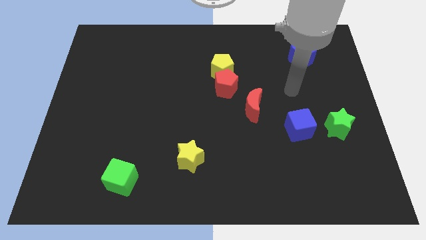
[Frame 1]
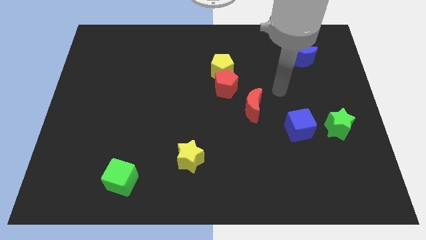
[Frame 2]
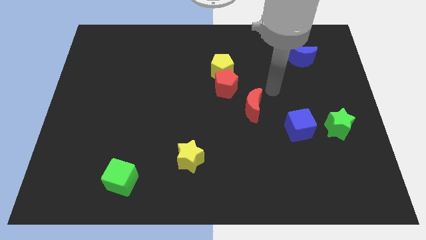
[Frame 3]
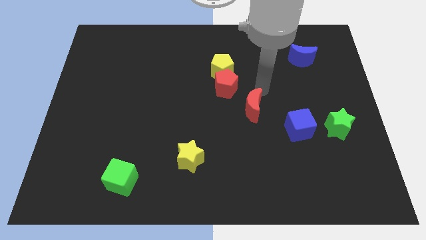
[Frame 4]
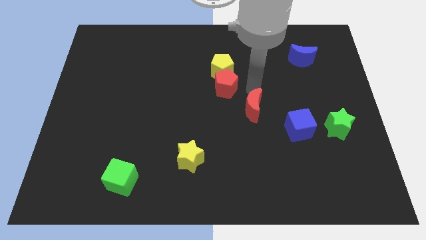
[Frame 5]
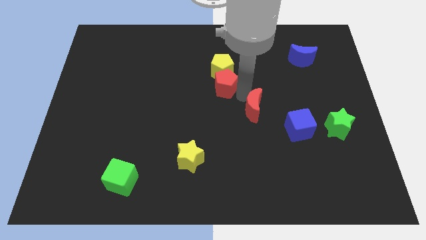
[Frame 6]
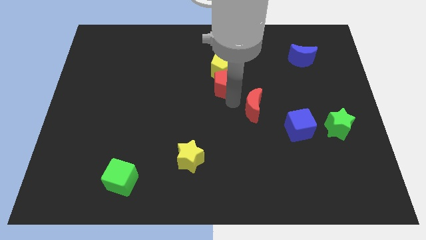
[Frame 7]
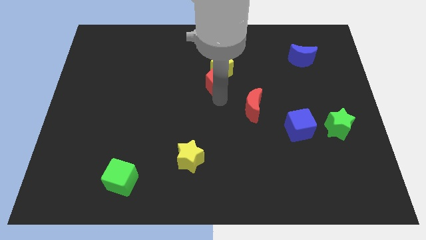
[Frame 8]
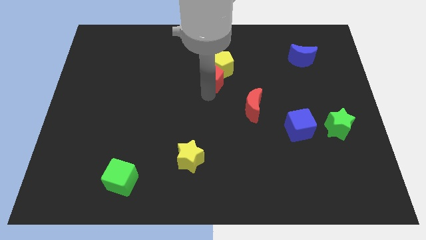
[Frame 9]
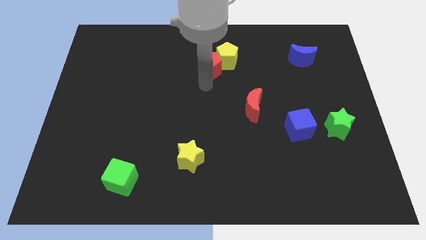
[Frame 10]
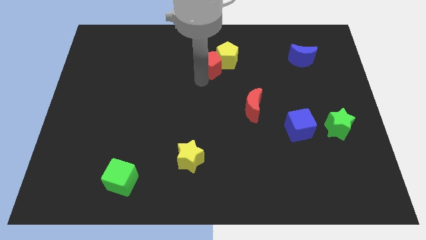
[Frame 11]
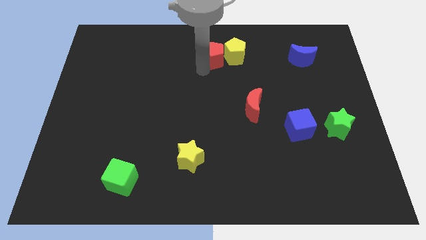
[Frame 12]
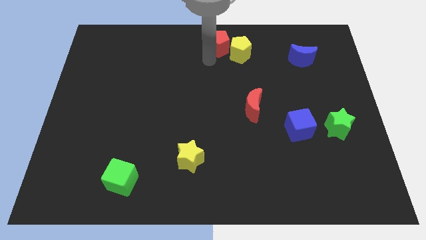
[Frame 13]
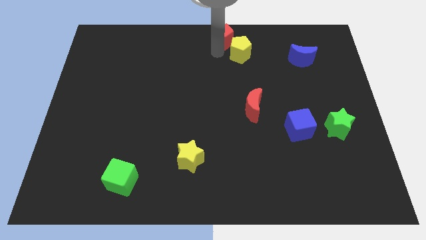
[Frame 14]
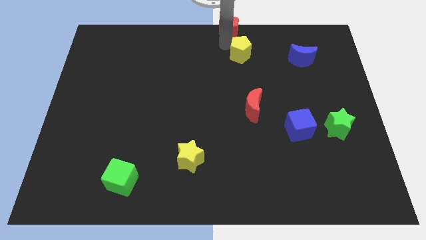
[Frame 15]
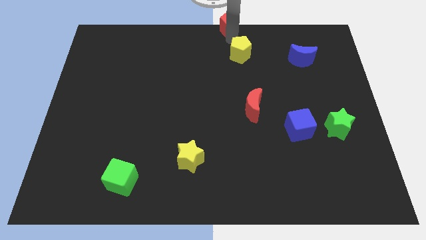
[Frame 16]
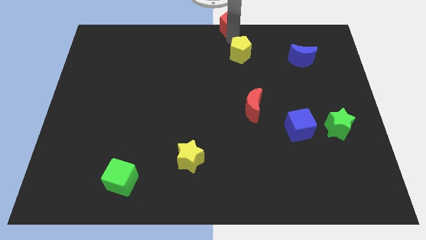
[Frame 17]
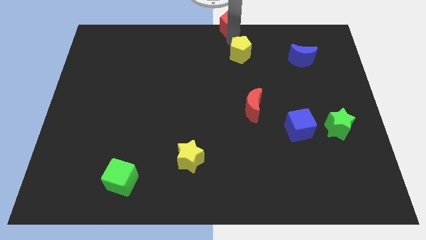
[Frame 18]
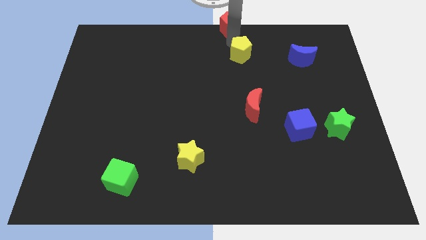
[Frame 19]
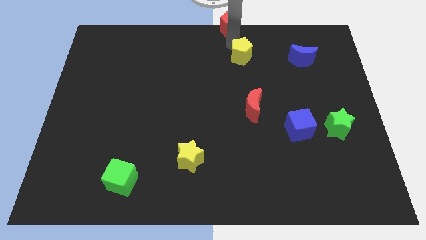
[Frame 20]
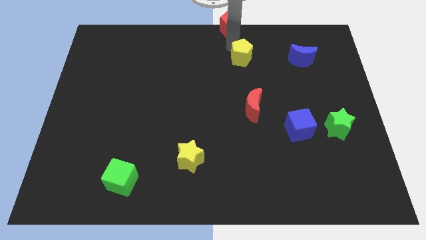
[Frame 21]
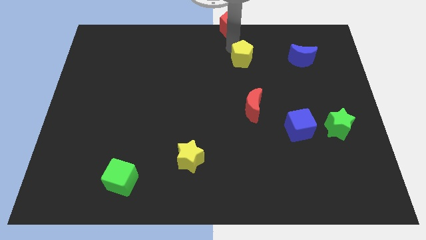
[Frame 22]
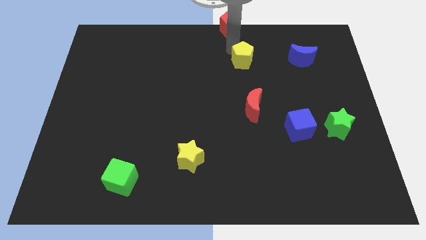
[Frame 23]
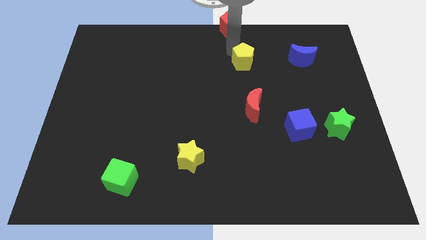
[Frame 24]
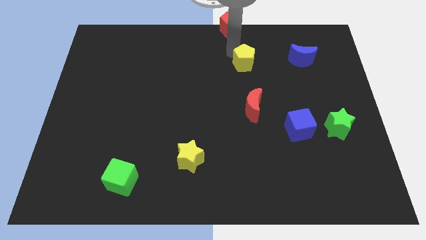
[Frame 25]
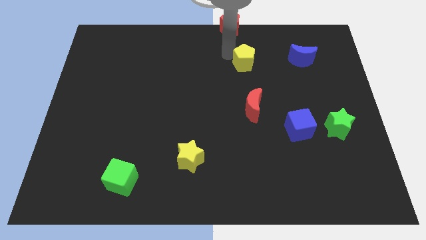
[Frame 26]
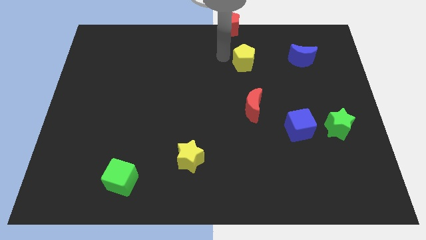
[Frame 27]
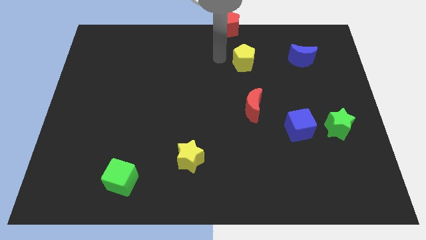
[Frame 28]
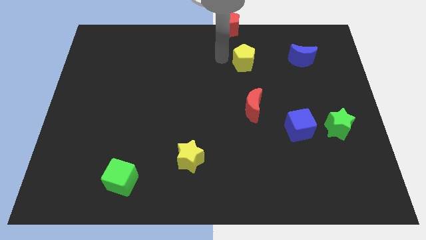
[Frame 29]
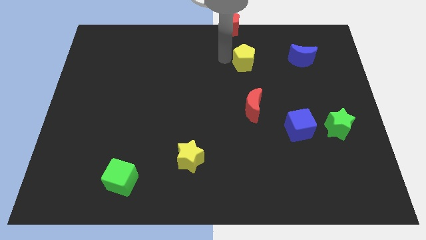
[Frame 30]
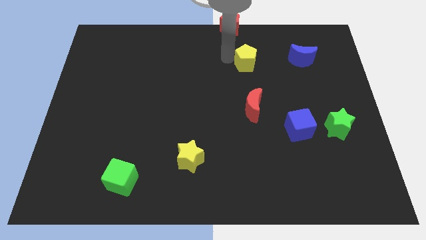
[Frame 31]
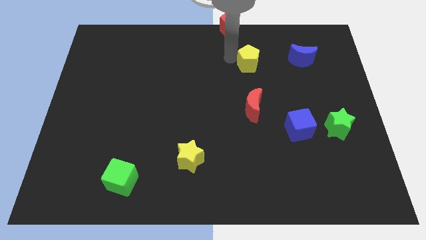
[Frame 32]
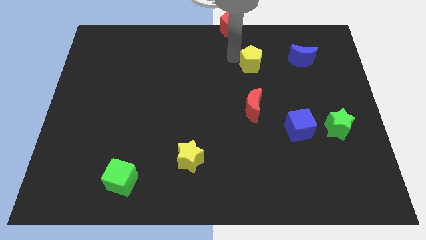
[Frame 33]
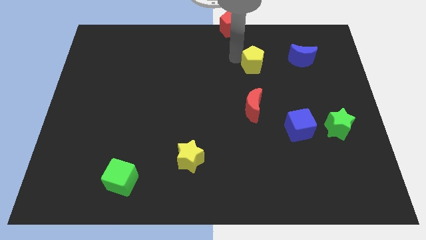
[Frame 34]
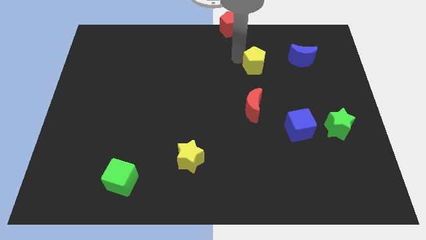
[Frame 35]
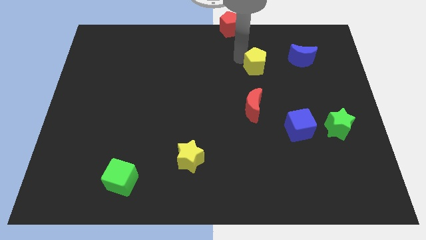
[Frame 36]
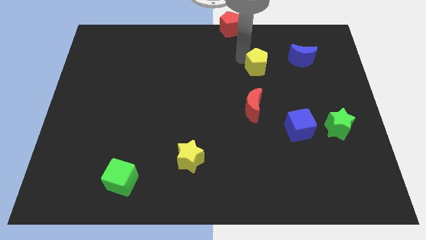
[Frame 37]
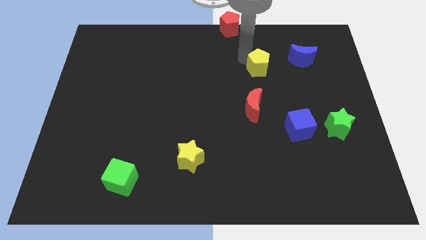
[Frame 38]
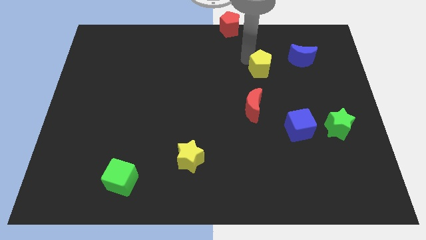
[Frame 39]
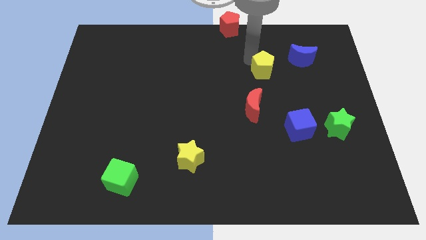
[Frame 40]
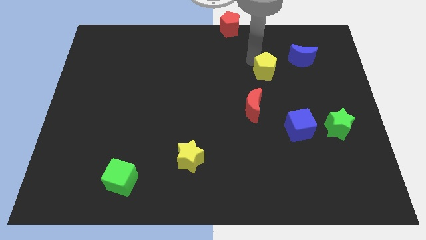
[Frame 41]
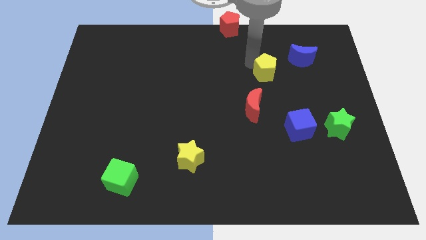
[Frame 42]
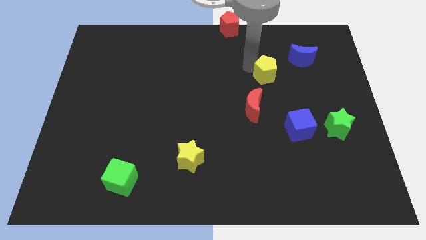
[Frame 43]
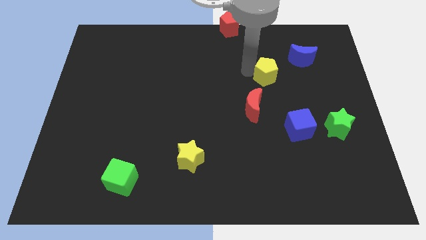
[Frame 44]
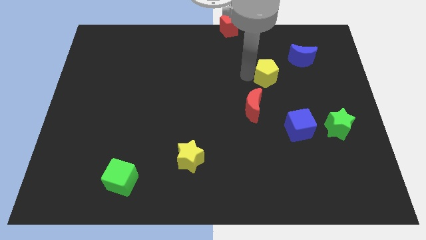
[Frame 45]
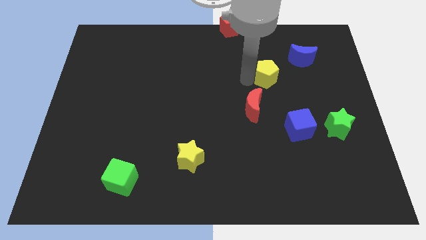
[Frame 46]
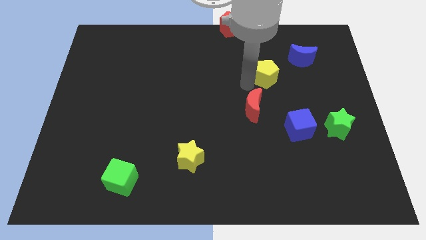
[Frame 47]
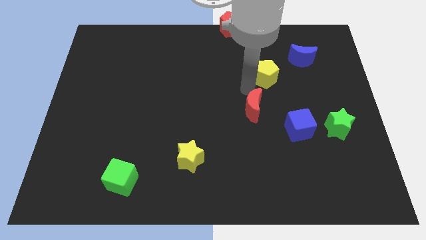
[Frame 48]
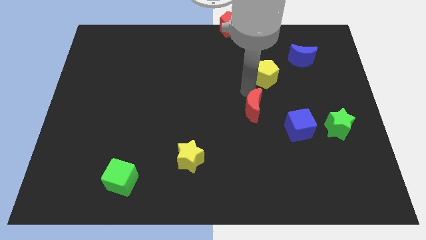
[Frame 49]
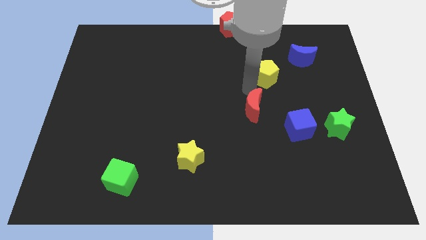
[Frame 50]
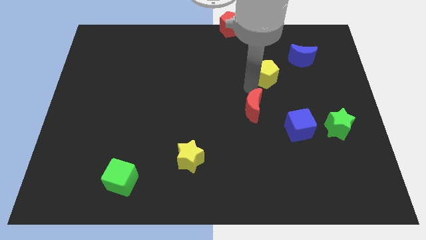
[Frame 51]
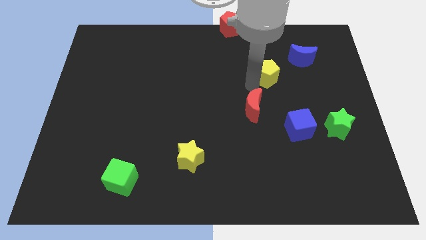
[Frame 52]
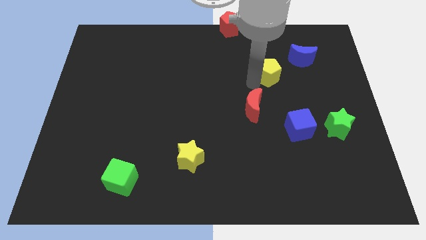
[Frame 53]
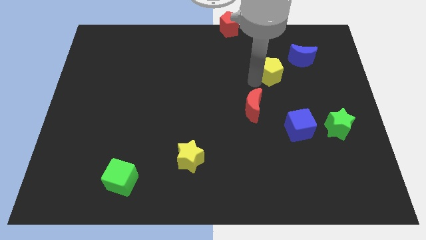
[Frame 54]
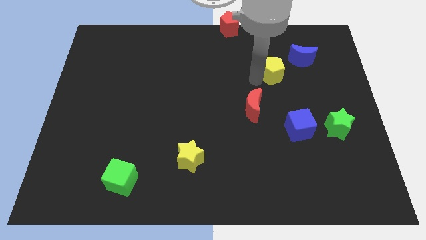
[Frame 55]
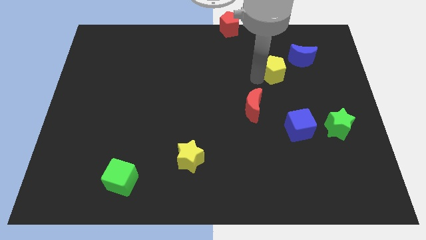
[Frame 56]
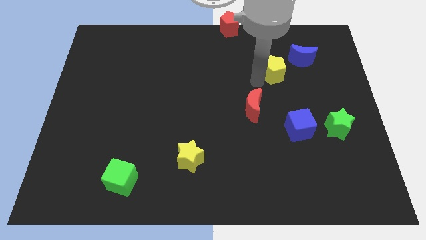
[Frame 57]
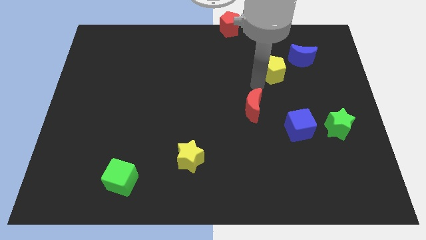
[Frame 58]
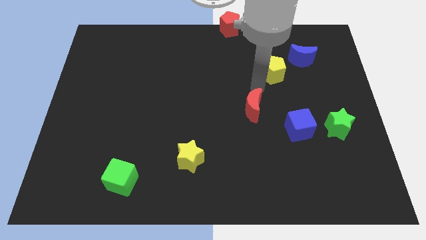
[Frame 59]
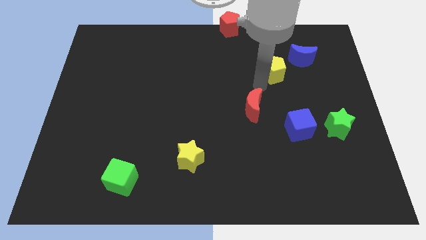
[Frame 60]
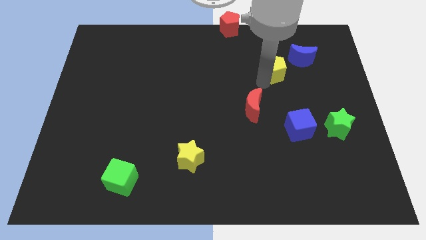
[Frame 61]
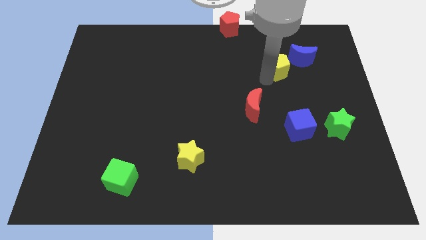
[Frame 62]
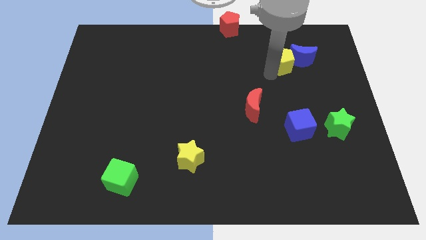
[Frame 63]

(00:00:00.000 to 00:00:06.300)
move the yellow pentagon towards the blue moon

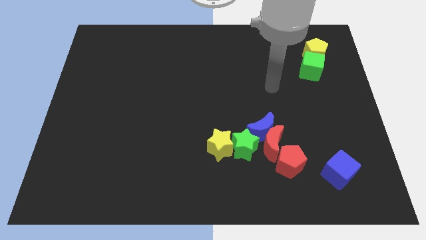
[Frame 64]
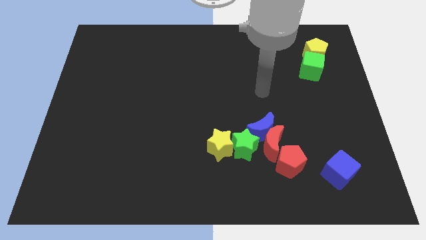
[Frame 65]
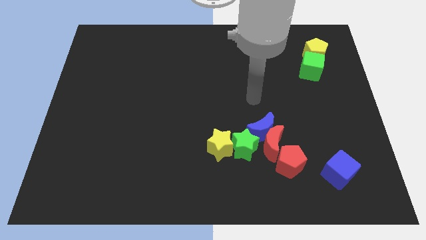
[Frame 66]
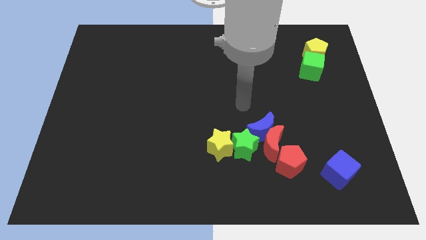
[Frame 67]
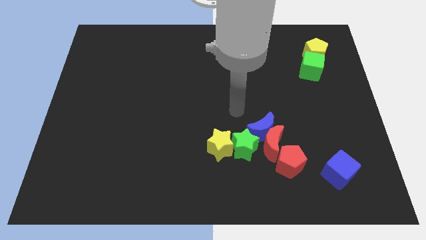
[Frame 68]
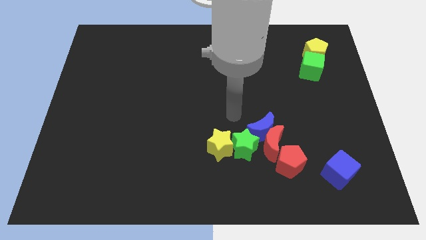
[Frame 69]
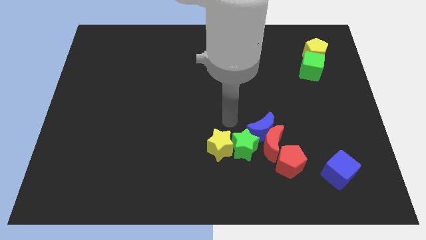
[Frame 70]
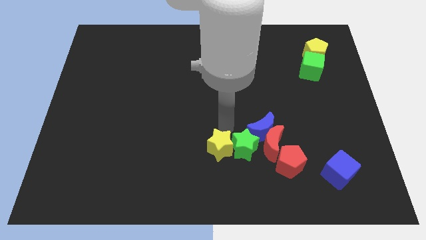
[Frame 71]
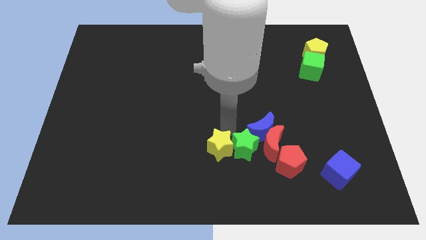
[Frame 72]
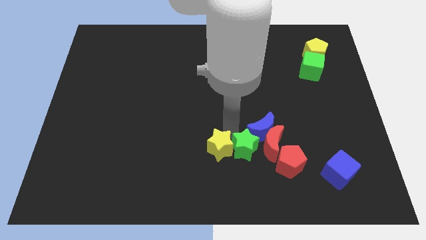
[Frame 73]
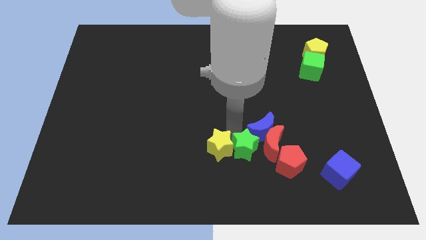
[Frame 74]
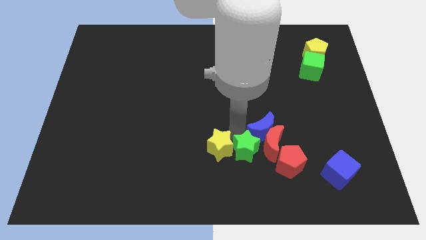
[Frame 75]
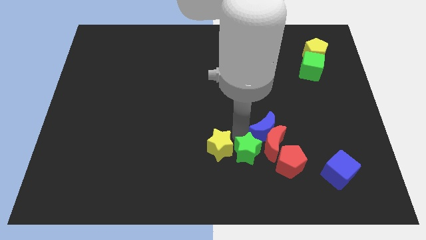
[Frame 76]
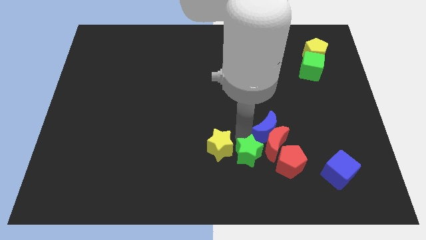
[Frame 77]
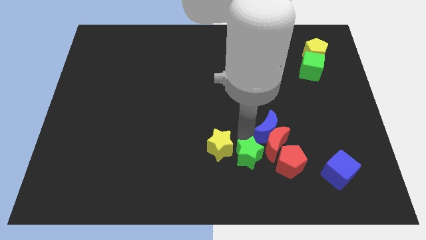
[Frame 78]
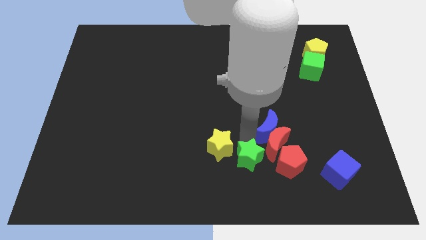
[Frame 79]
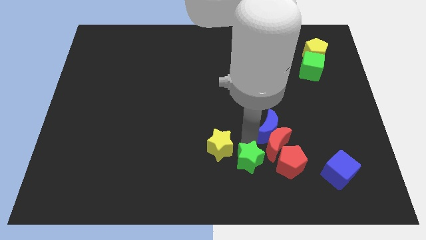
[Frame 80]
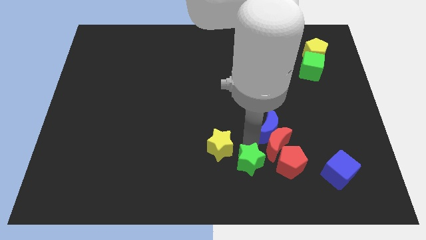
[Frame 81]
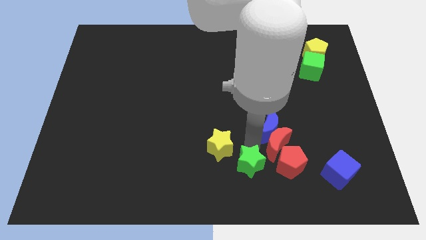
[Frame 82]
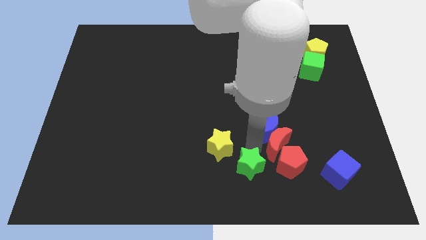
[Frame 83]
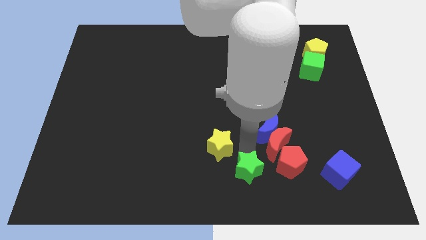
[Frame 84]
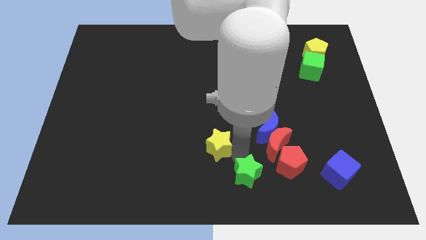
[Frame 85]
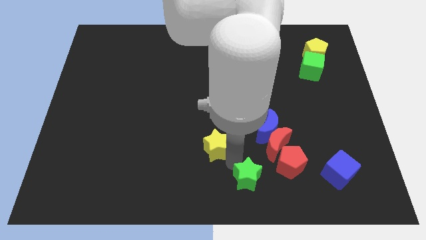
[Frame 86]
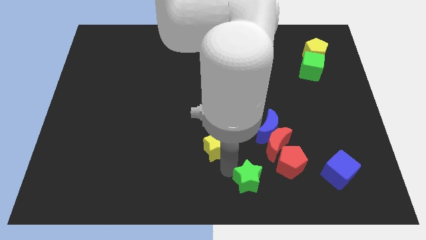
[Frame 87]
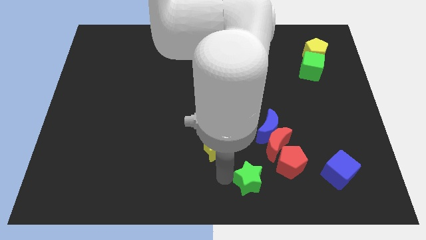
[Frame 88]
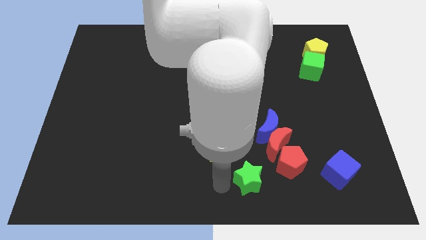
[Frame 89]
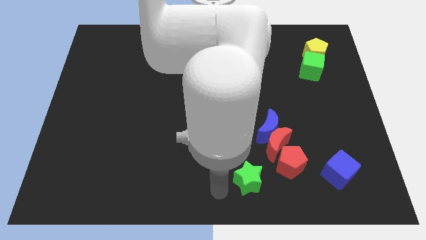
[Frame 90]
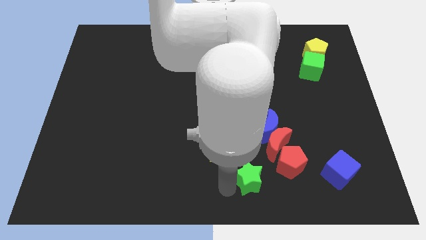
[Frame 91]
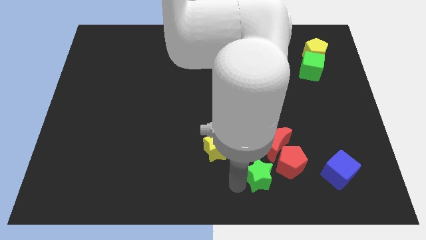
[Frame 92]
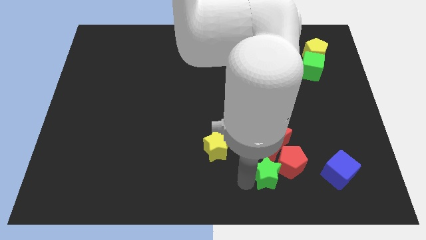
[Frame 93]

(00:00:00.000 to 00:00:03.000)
slide the green star next to the red pentagon
